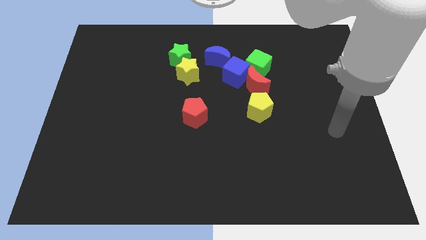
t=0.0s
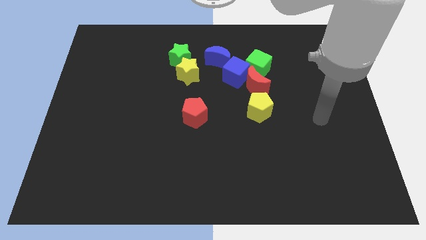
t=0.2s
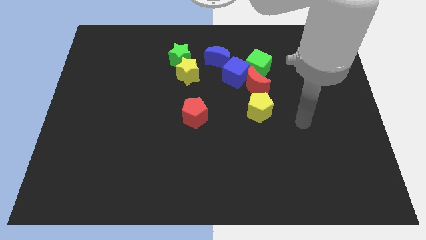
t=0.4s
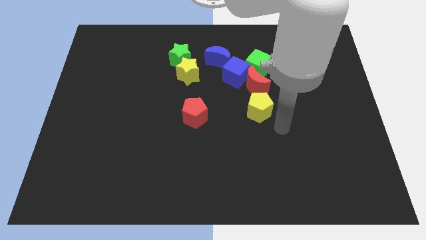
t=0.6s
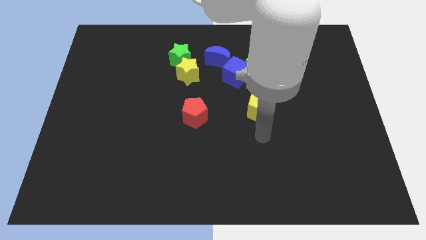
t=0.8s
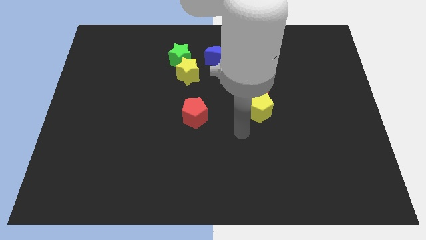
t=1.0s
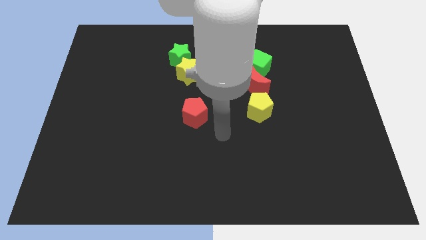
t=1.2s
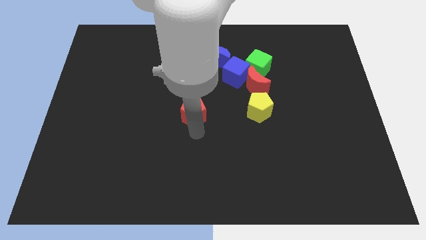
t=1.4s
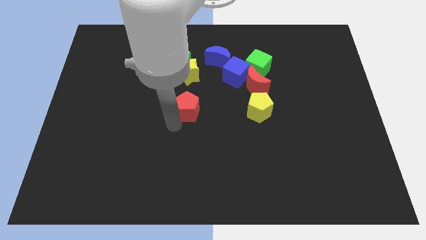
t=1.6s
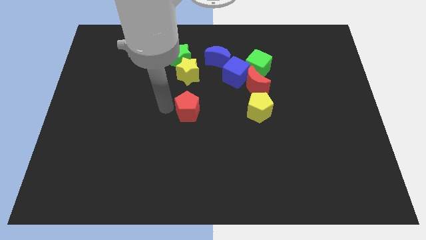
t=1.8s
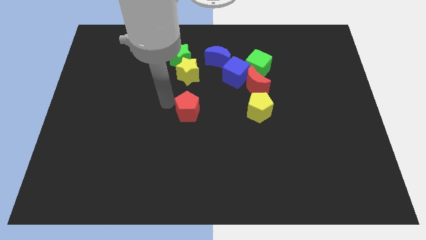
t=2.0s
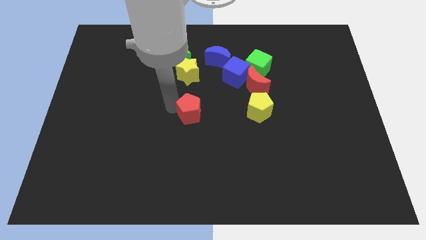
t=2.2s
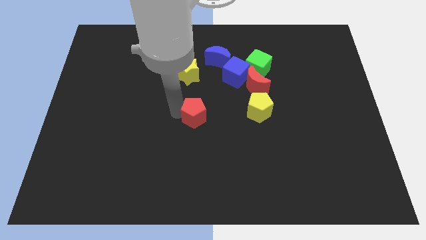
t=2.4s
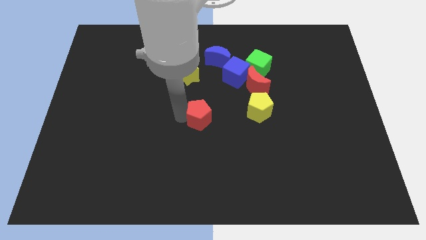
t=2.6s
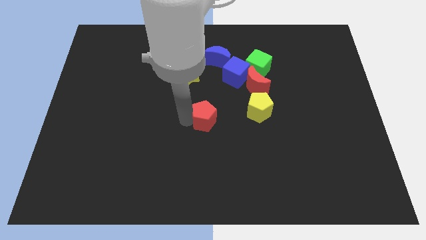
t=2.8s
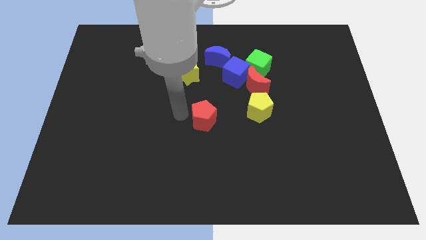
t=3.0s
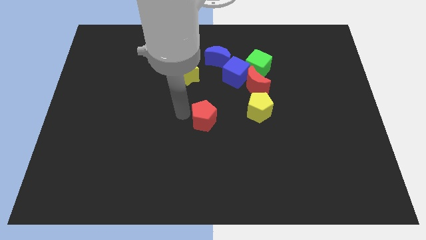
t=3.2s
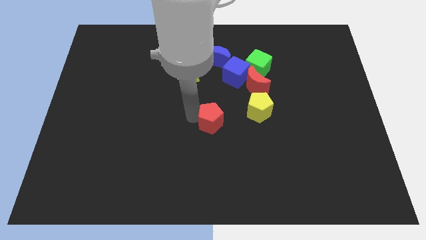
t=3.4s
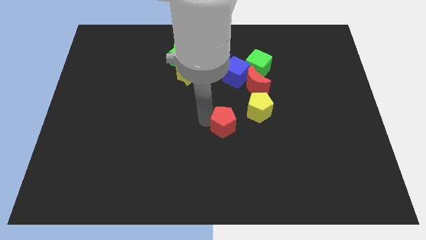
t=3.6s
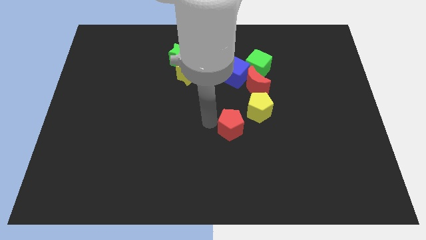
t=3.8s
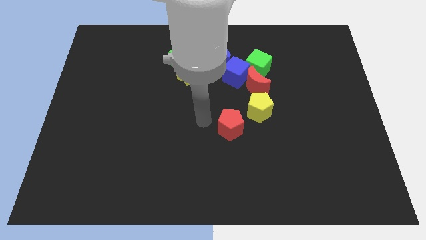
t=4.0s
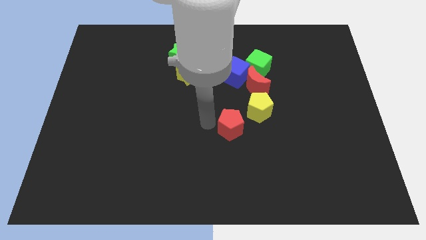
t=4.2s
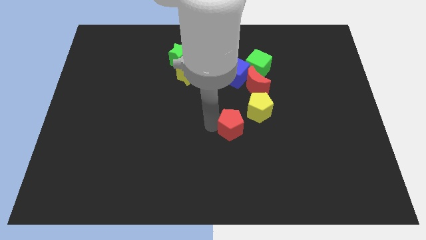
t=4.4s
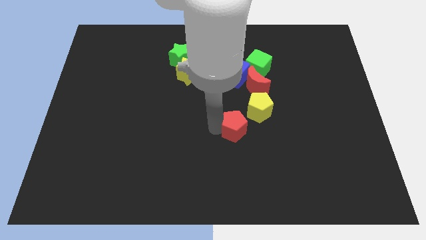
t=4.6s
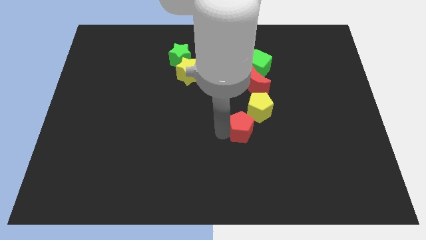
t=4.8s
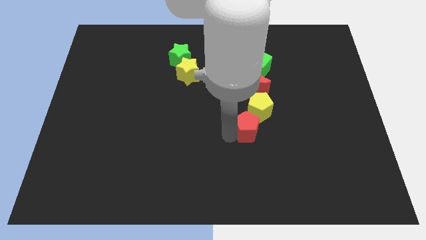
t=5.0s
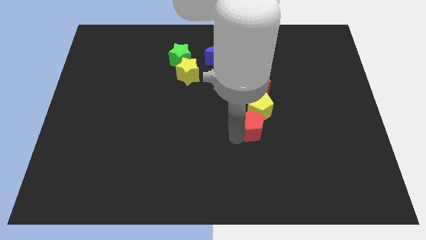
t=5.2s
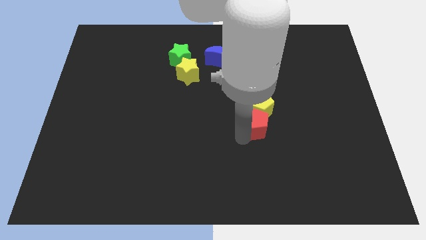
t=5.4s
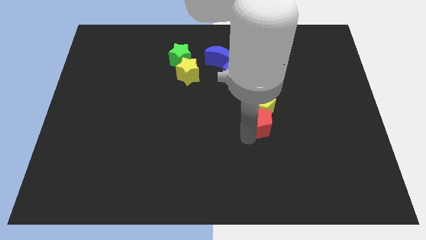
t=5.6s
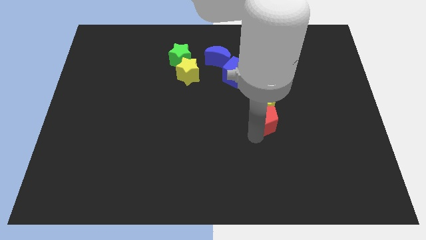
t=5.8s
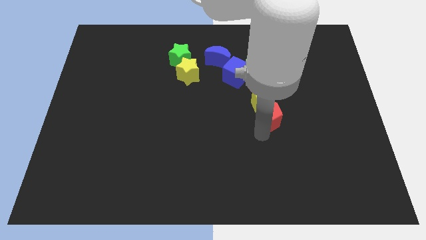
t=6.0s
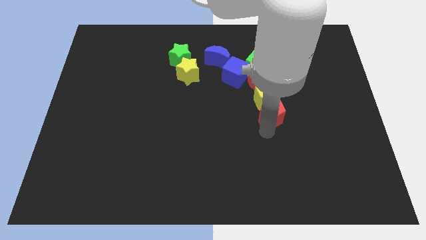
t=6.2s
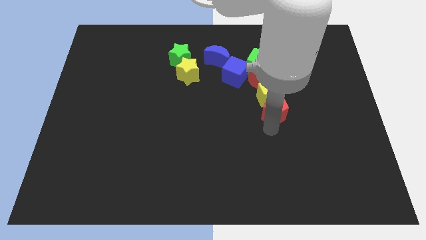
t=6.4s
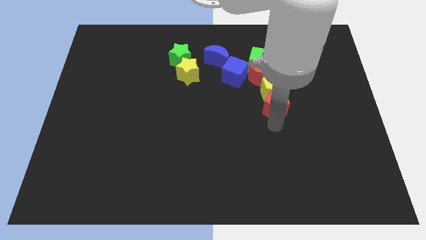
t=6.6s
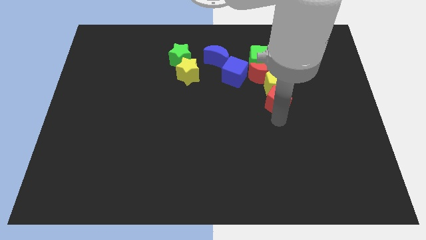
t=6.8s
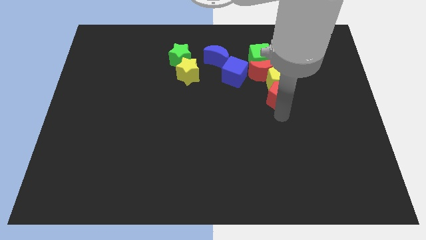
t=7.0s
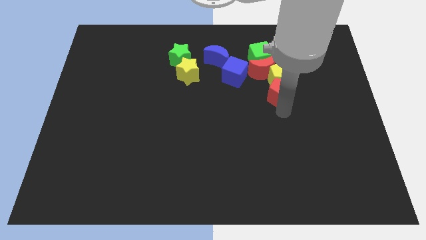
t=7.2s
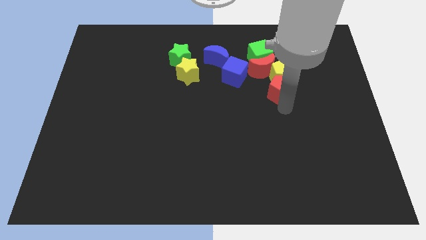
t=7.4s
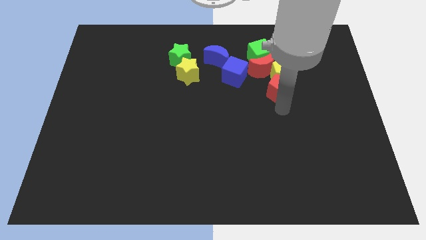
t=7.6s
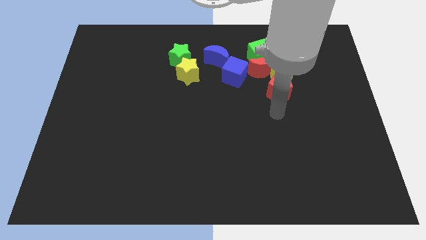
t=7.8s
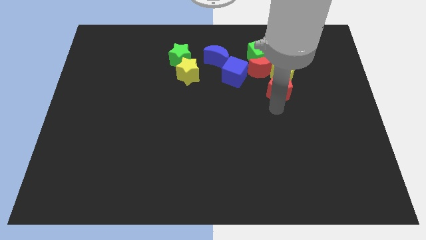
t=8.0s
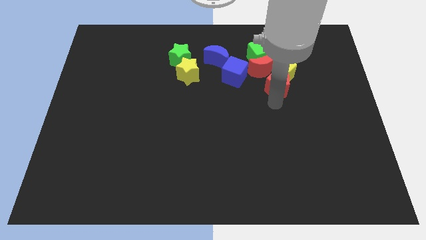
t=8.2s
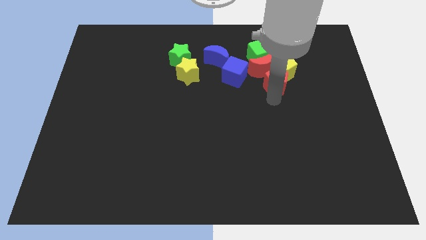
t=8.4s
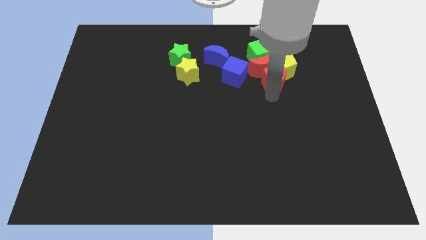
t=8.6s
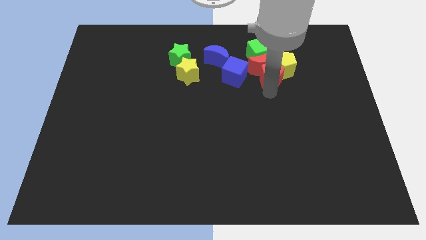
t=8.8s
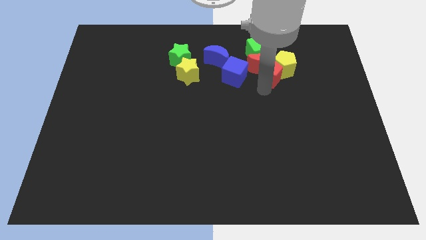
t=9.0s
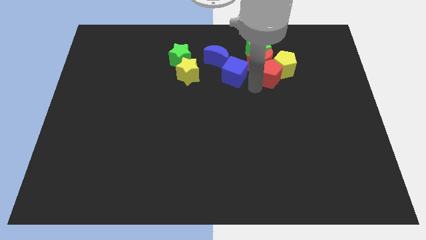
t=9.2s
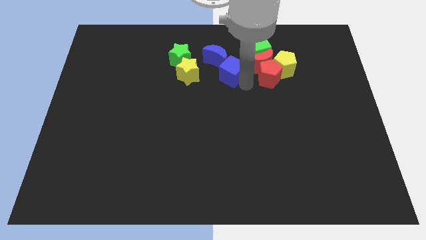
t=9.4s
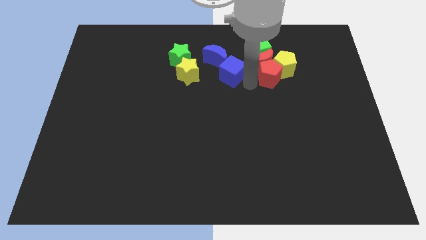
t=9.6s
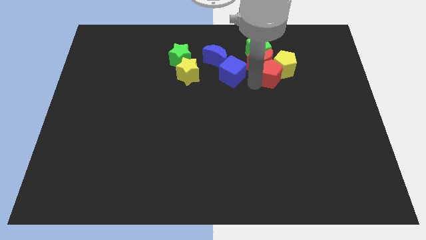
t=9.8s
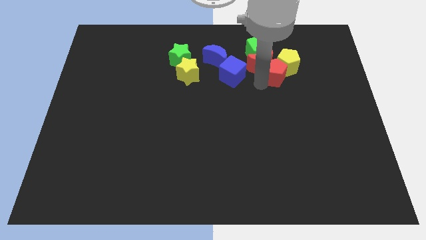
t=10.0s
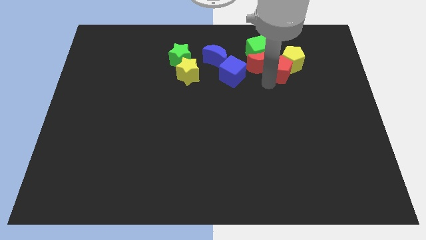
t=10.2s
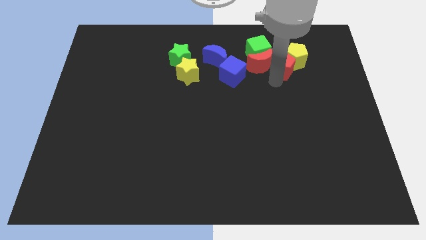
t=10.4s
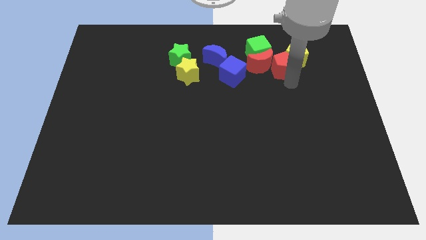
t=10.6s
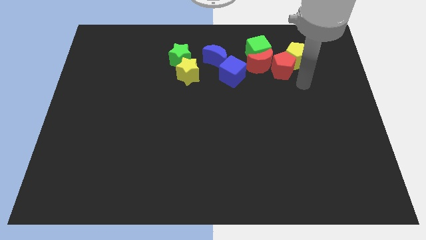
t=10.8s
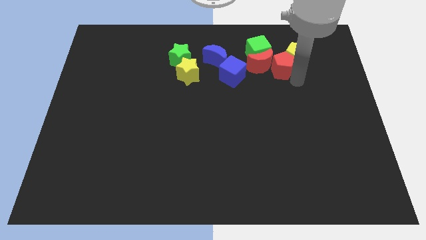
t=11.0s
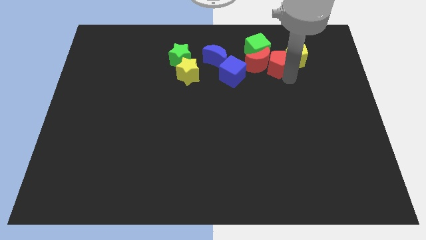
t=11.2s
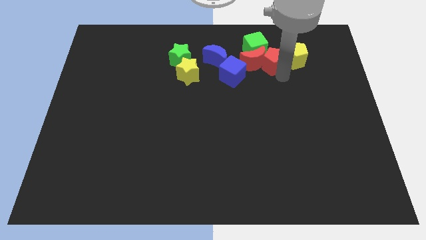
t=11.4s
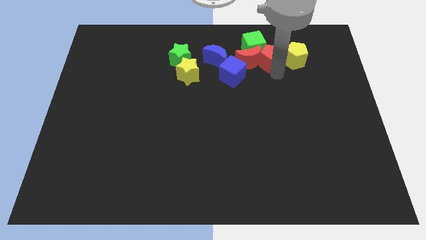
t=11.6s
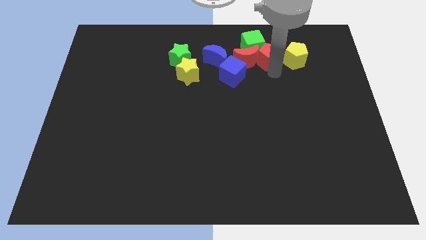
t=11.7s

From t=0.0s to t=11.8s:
move the red pentagon towards the green cube

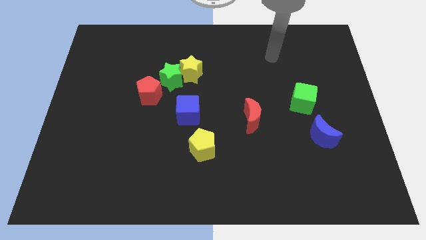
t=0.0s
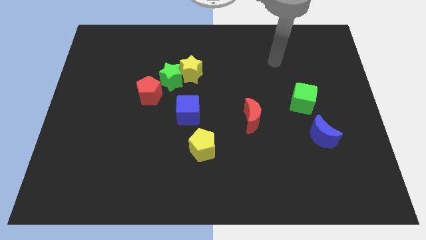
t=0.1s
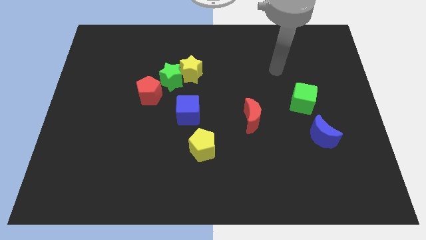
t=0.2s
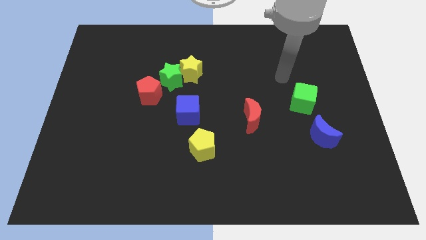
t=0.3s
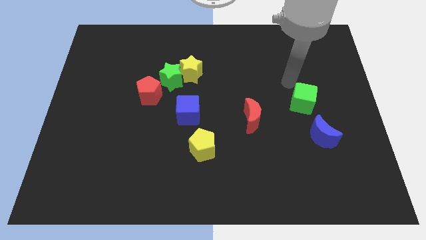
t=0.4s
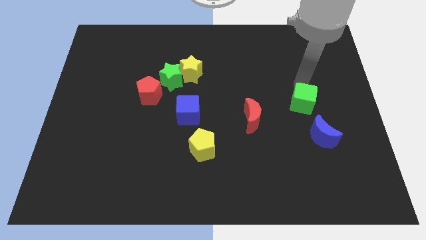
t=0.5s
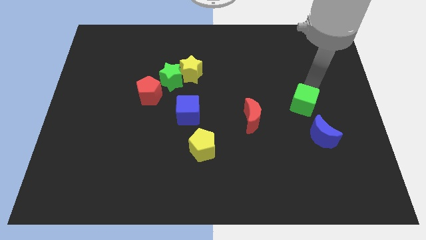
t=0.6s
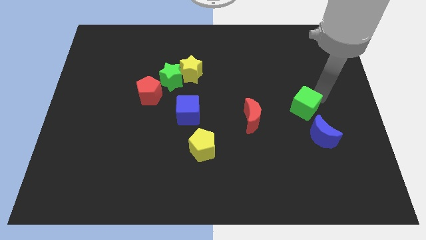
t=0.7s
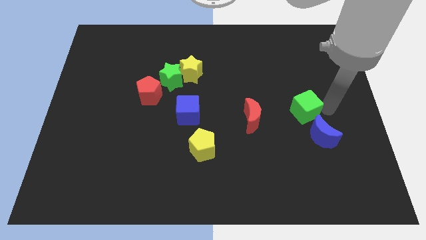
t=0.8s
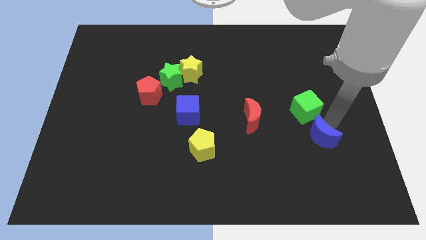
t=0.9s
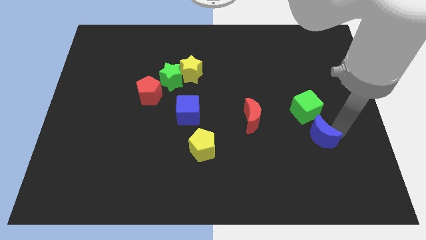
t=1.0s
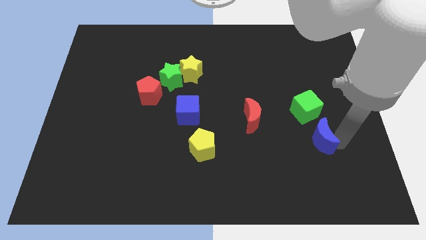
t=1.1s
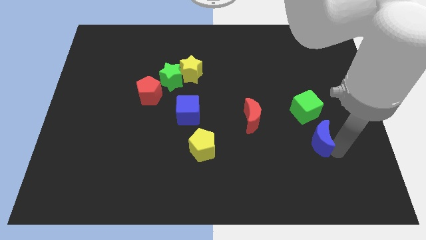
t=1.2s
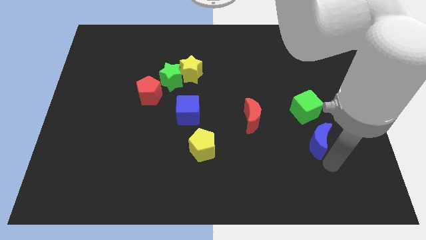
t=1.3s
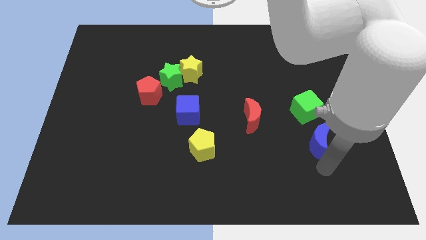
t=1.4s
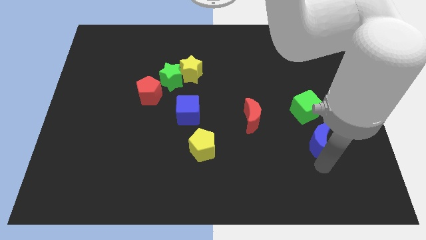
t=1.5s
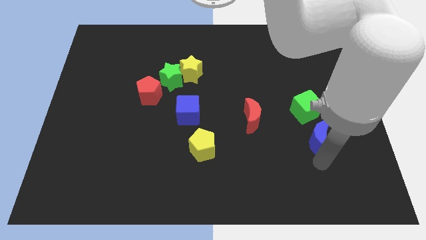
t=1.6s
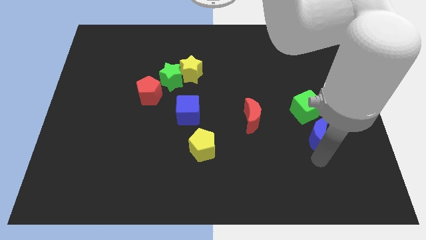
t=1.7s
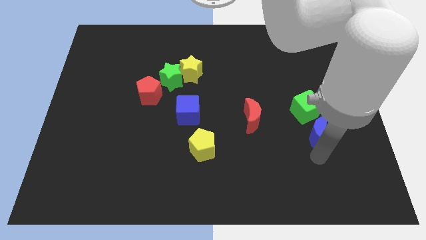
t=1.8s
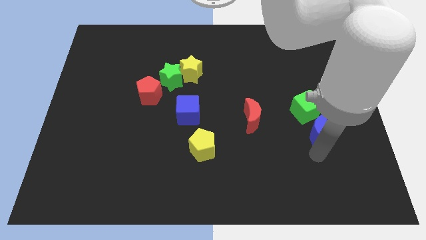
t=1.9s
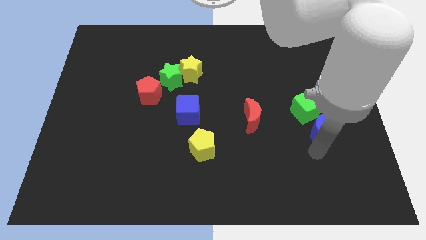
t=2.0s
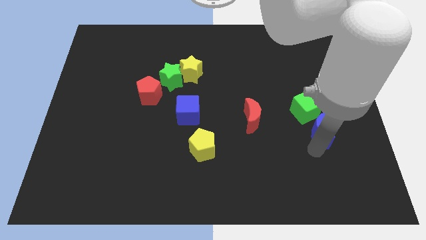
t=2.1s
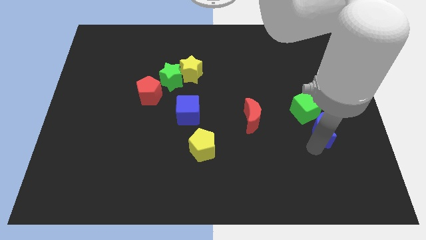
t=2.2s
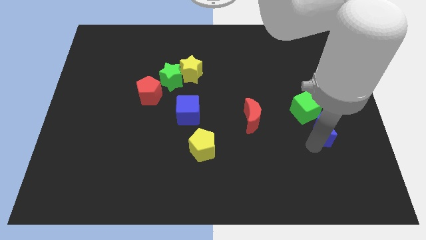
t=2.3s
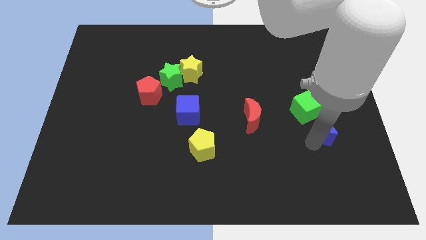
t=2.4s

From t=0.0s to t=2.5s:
put the blue moon next to the green cube
